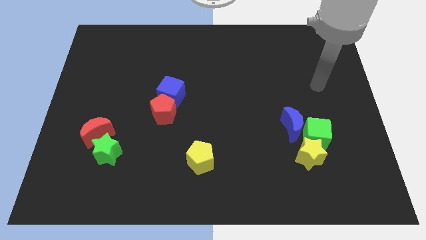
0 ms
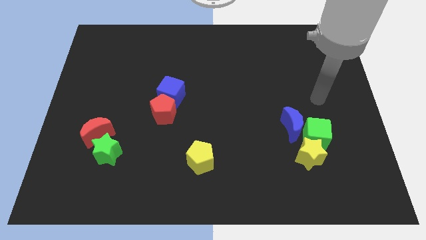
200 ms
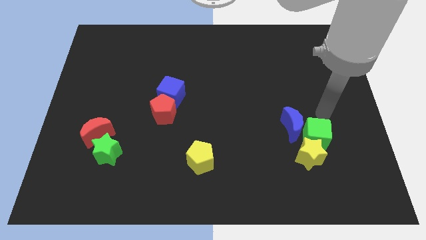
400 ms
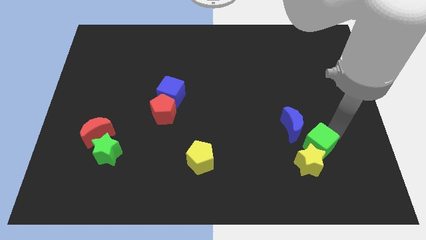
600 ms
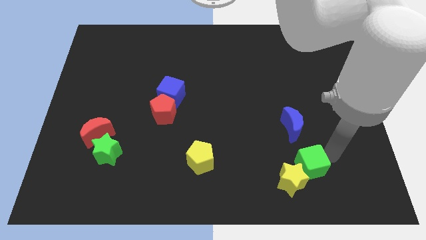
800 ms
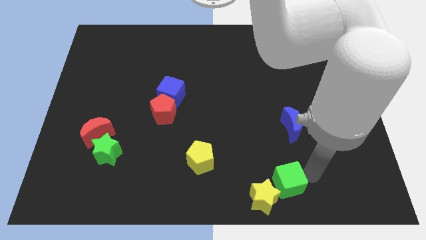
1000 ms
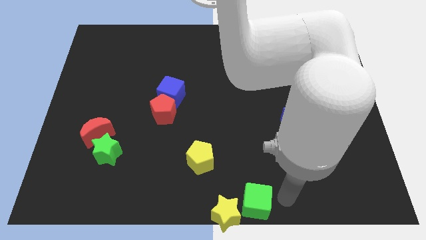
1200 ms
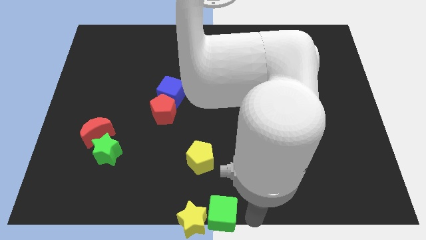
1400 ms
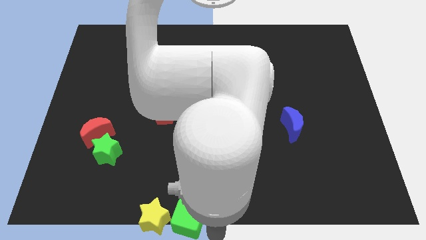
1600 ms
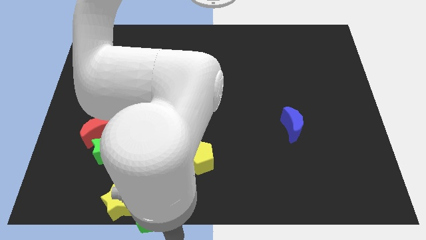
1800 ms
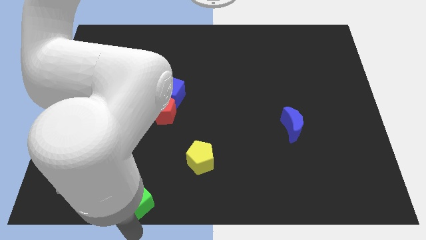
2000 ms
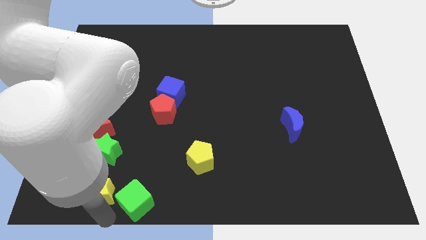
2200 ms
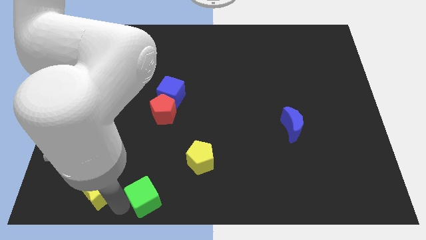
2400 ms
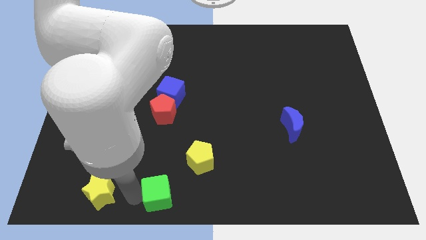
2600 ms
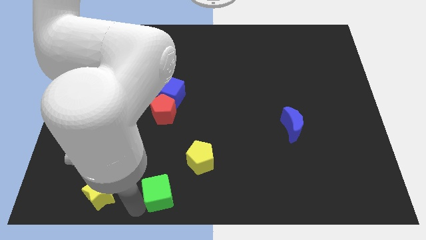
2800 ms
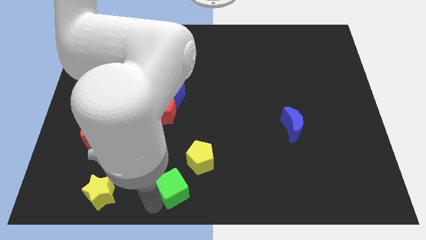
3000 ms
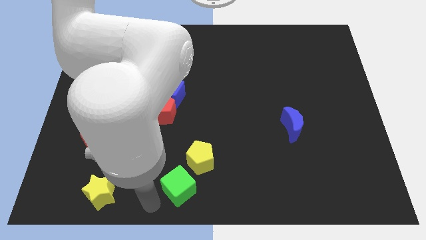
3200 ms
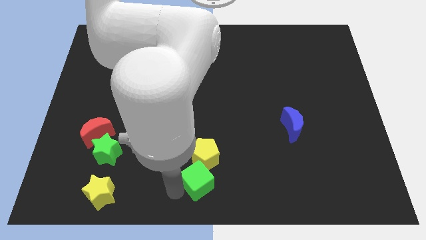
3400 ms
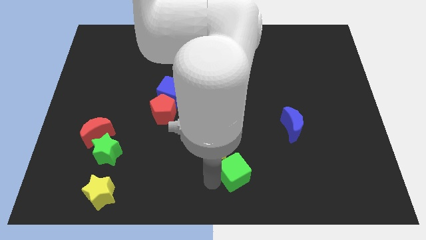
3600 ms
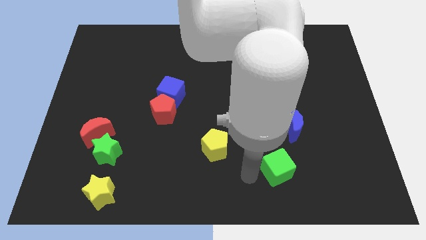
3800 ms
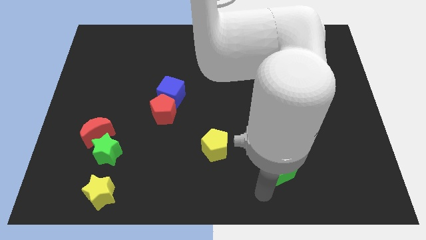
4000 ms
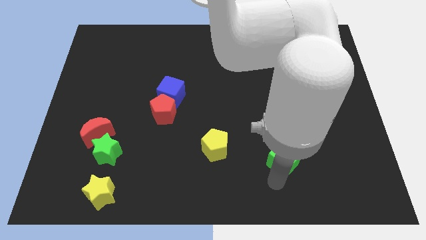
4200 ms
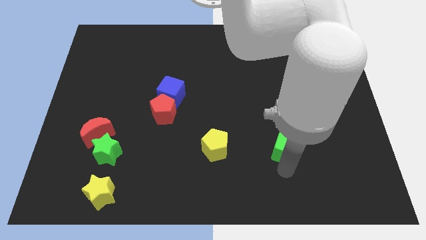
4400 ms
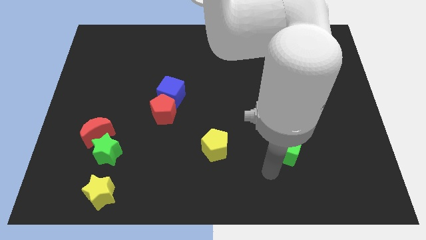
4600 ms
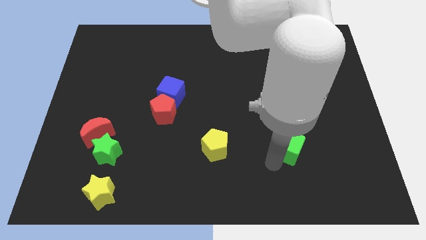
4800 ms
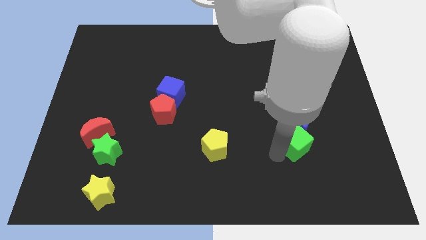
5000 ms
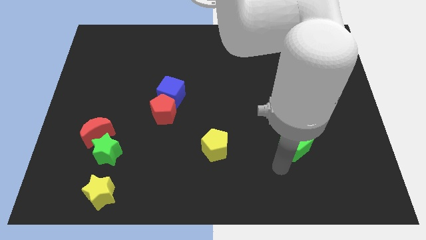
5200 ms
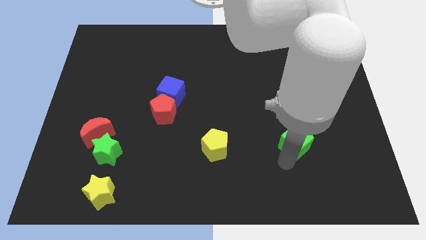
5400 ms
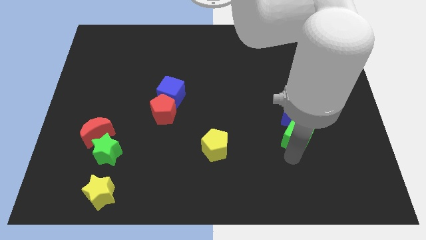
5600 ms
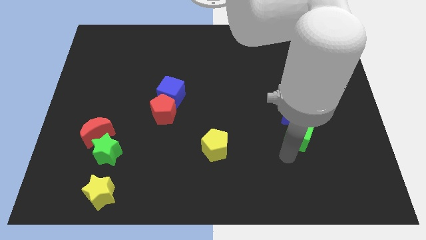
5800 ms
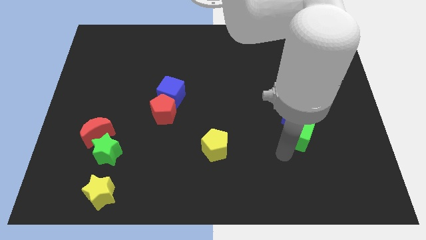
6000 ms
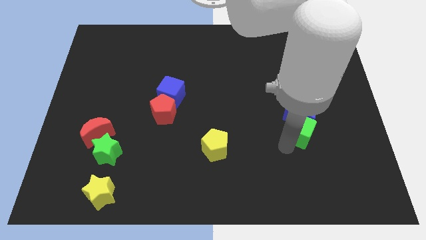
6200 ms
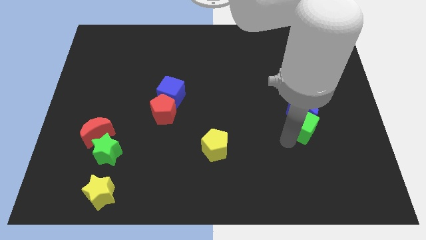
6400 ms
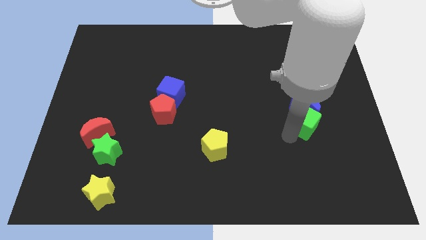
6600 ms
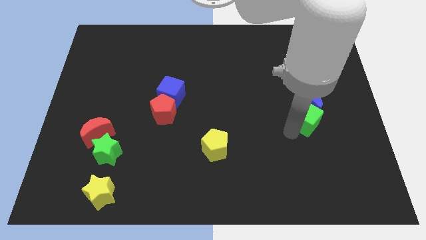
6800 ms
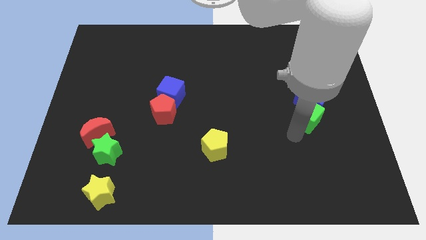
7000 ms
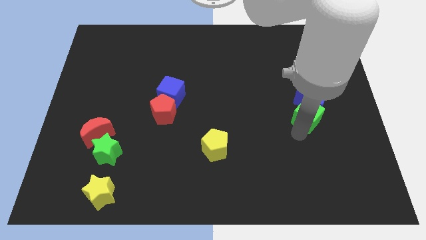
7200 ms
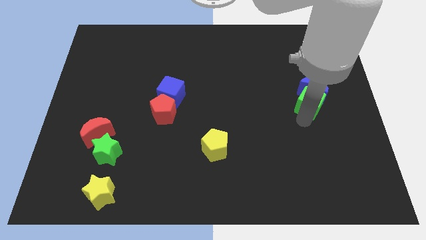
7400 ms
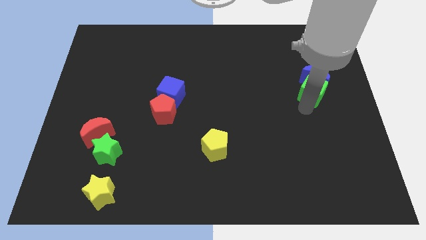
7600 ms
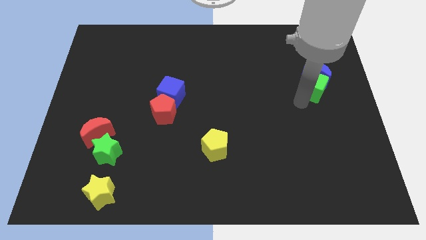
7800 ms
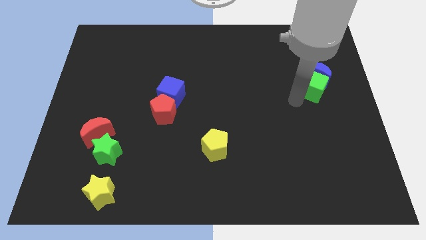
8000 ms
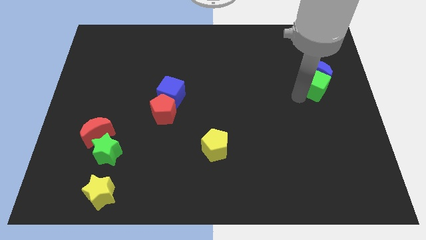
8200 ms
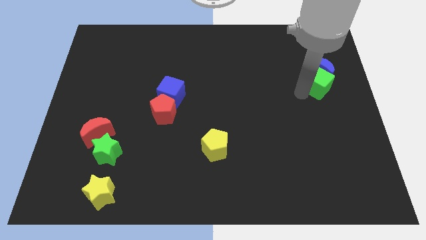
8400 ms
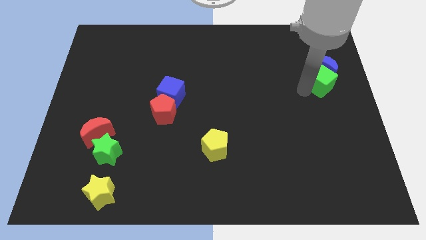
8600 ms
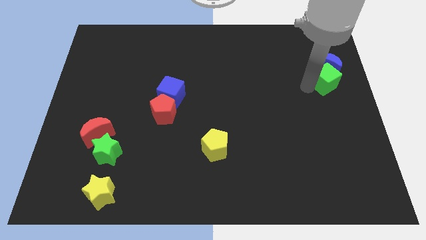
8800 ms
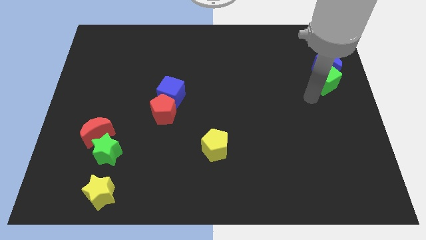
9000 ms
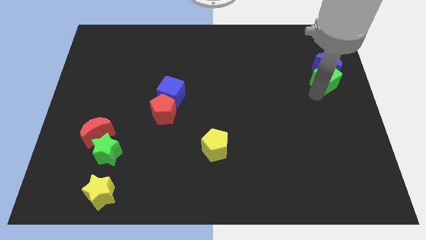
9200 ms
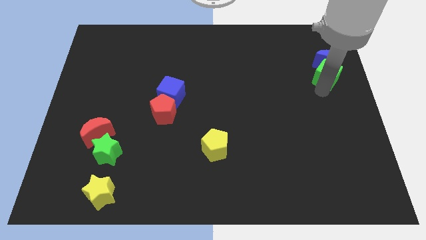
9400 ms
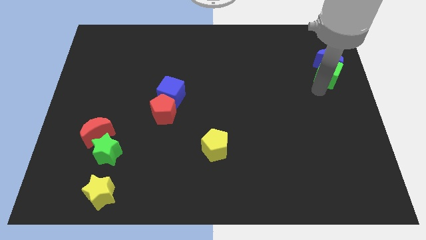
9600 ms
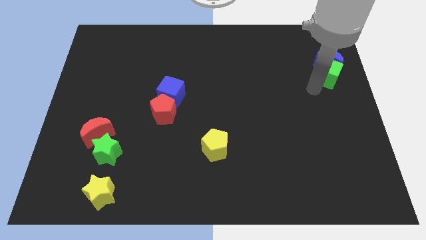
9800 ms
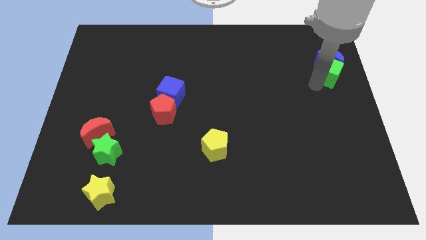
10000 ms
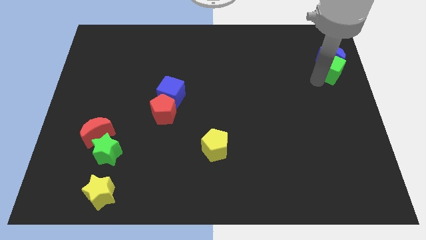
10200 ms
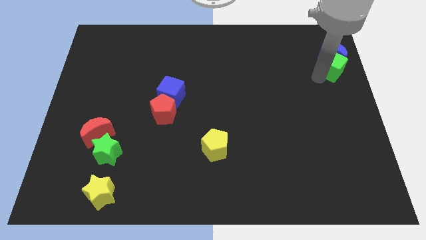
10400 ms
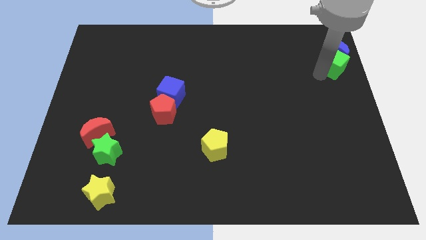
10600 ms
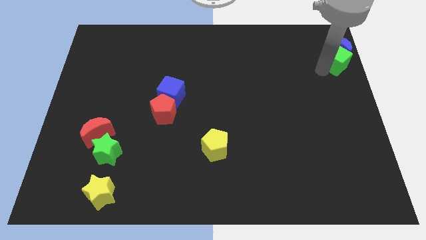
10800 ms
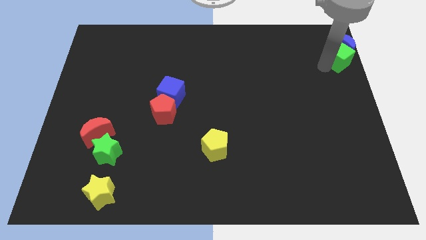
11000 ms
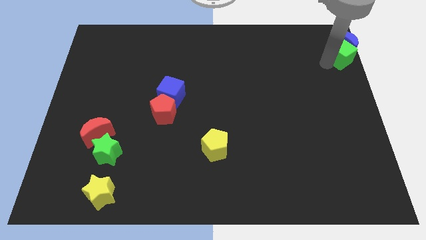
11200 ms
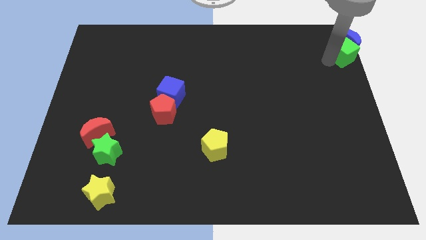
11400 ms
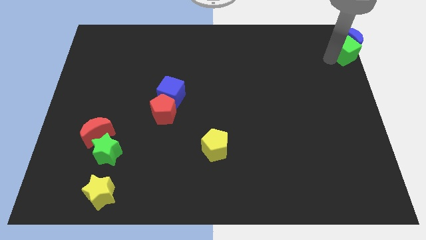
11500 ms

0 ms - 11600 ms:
push the green cube to the upper right corner

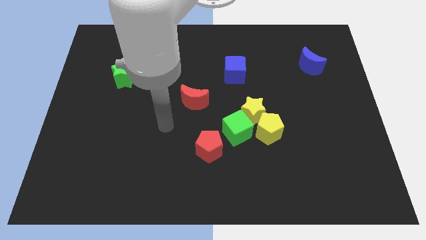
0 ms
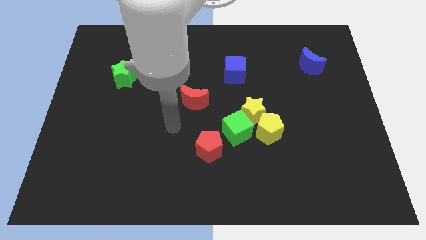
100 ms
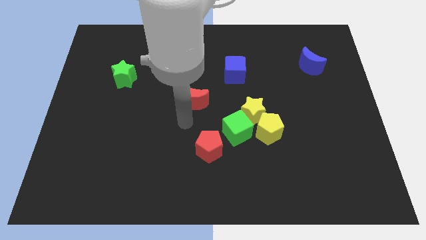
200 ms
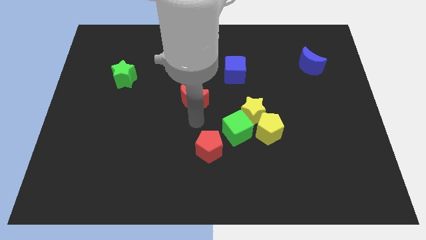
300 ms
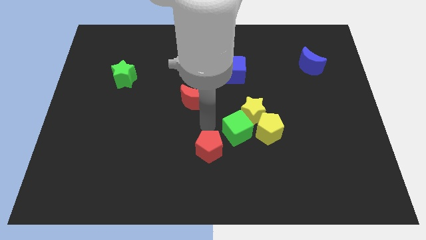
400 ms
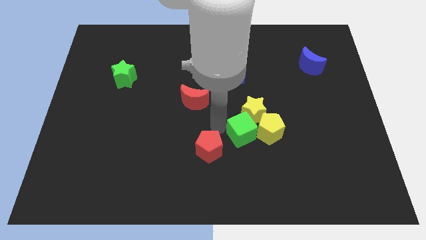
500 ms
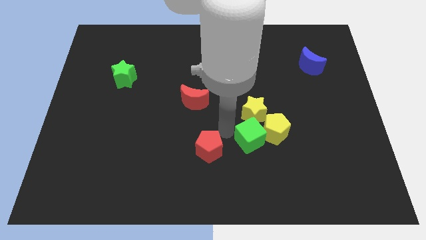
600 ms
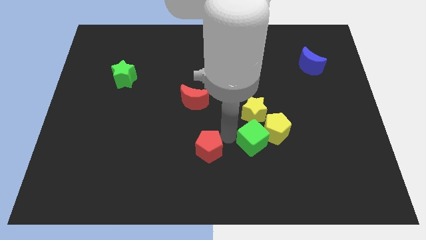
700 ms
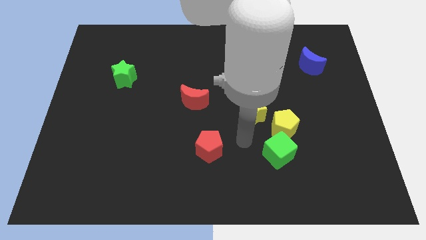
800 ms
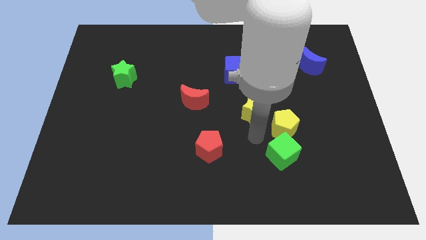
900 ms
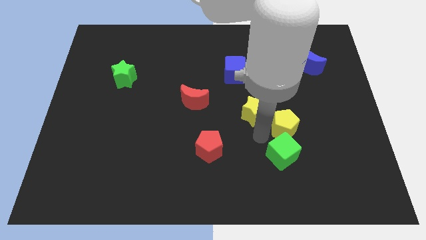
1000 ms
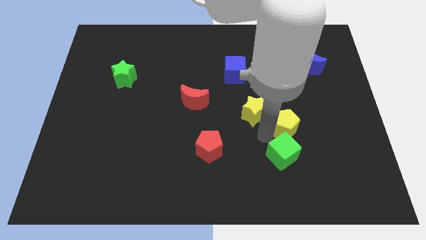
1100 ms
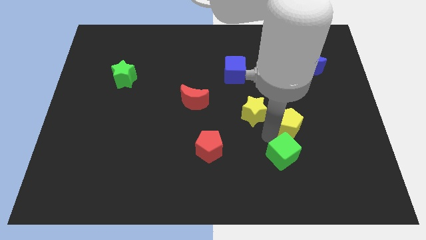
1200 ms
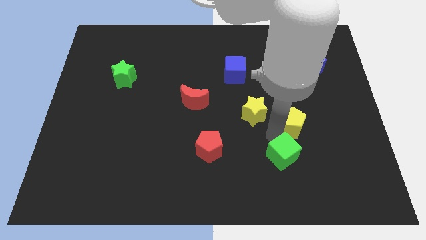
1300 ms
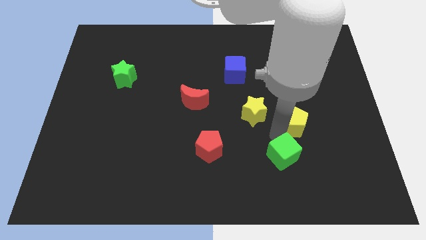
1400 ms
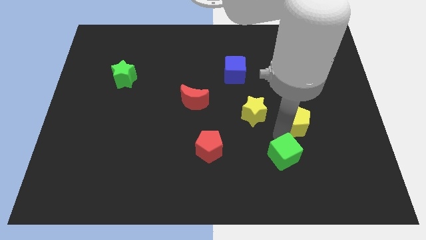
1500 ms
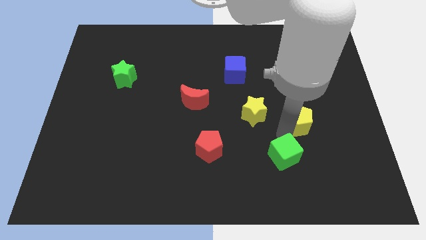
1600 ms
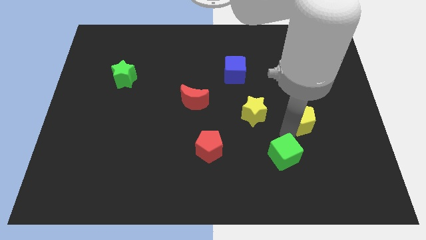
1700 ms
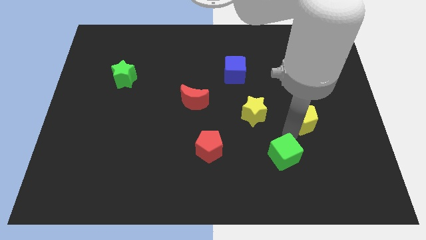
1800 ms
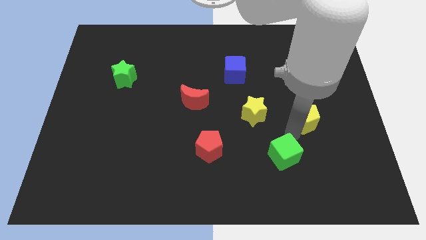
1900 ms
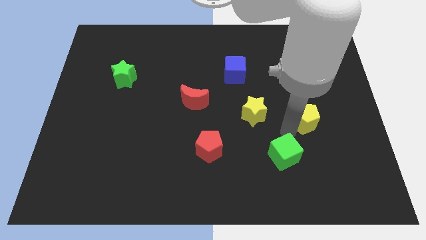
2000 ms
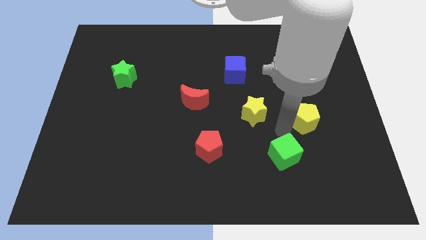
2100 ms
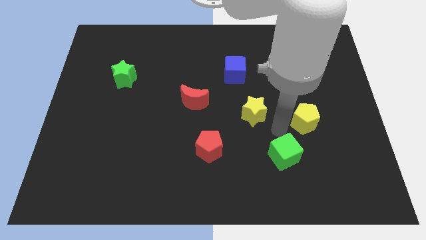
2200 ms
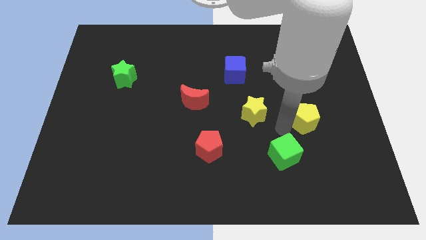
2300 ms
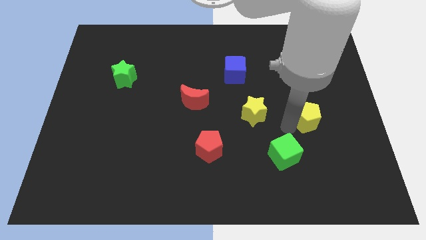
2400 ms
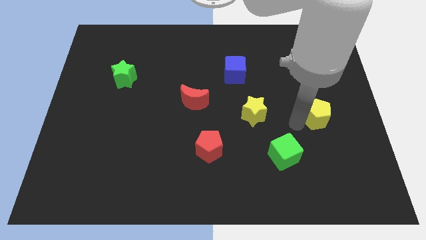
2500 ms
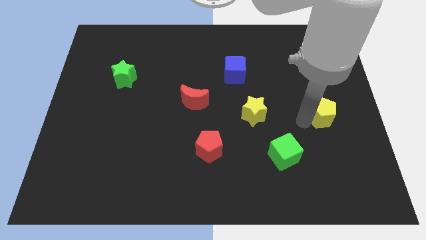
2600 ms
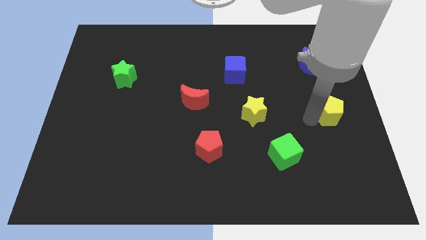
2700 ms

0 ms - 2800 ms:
push the yellow pentagon to the right side
